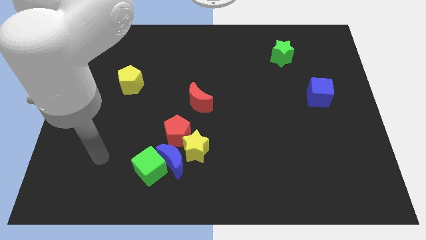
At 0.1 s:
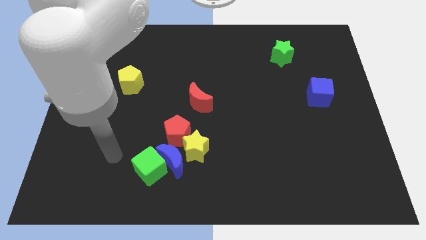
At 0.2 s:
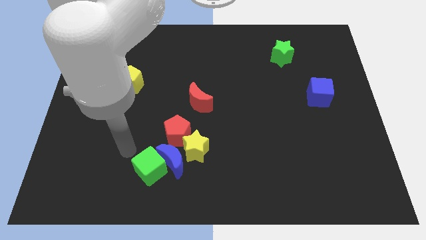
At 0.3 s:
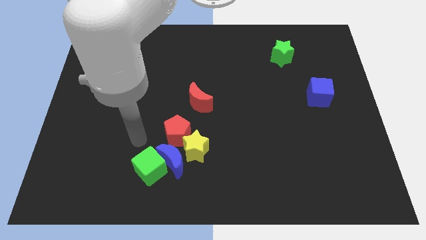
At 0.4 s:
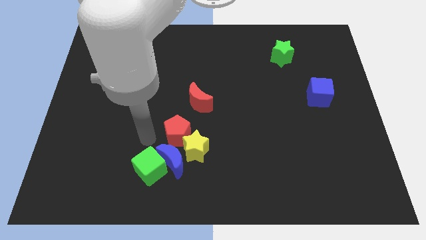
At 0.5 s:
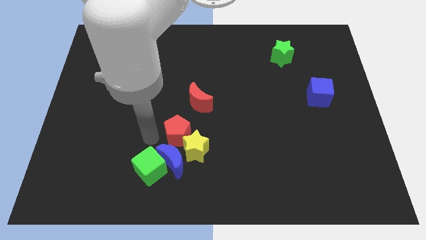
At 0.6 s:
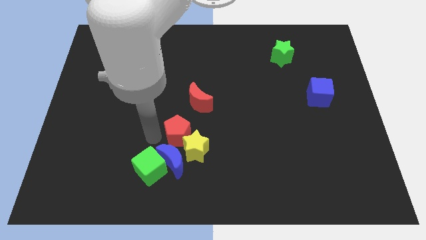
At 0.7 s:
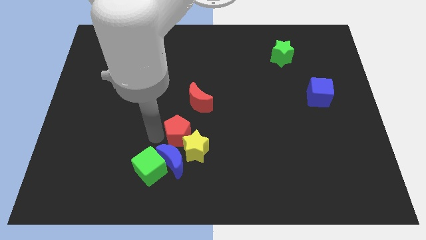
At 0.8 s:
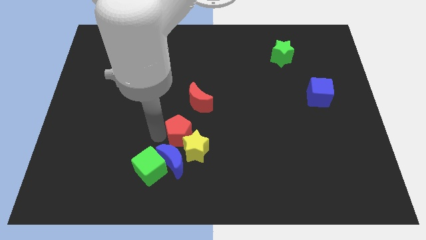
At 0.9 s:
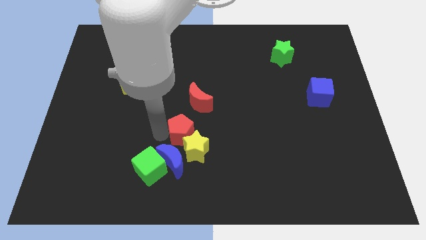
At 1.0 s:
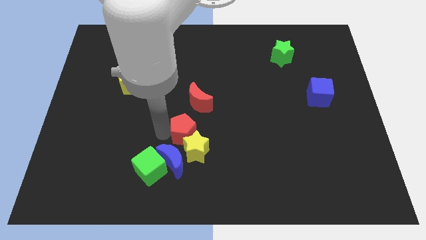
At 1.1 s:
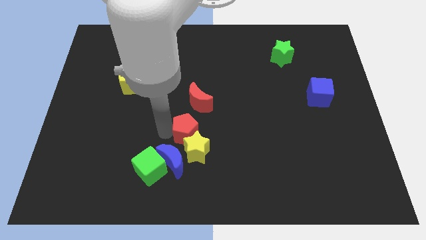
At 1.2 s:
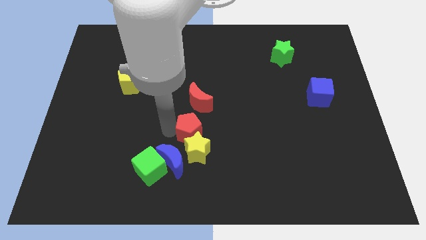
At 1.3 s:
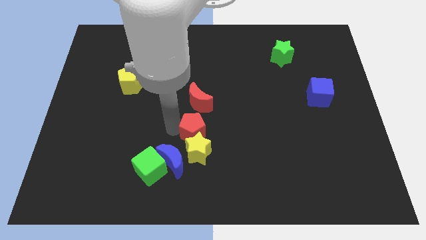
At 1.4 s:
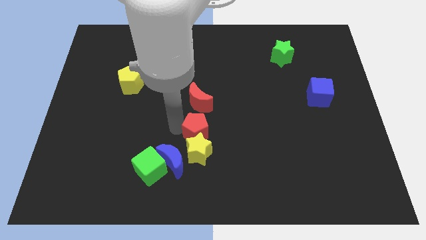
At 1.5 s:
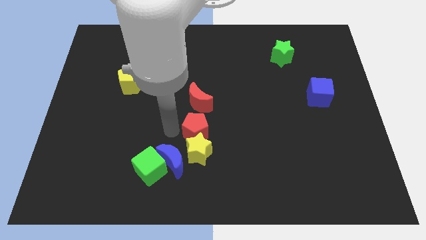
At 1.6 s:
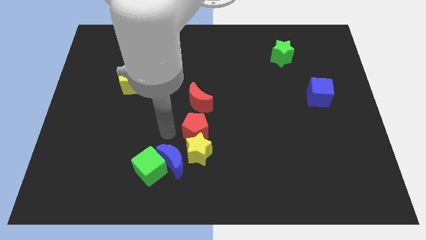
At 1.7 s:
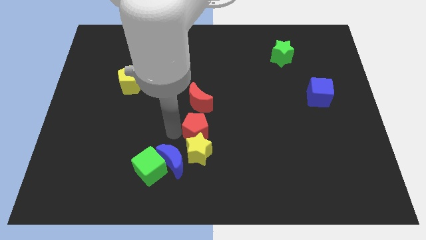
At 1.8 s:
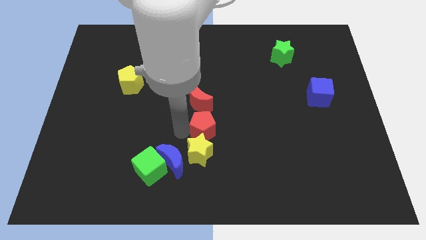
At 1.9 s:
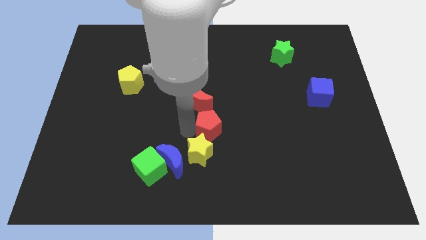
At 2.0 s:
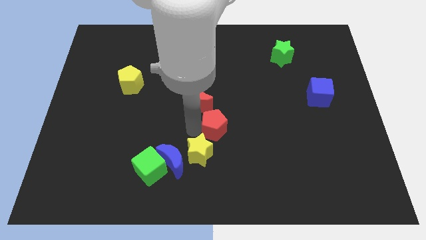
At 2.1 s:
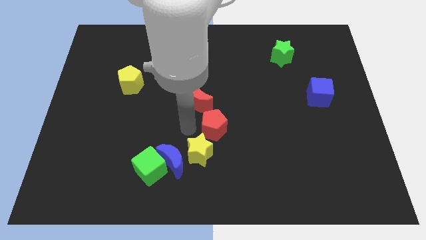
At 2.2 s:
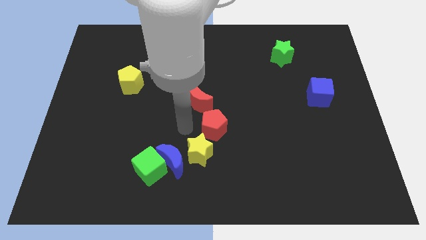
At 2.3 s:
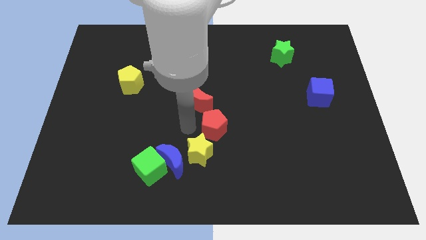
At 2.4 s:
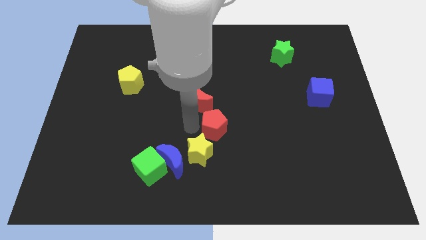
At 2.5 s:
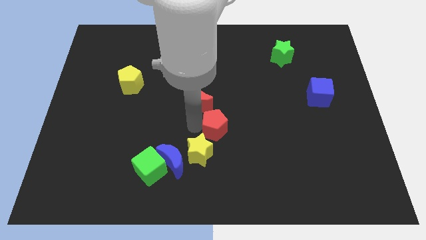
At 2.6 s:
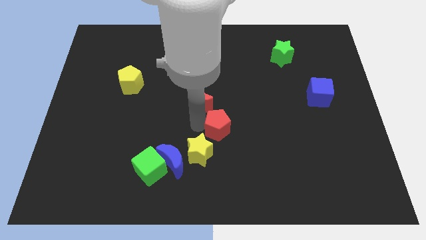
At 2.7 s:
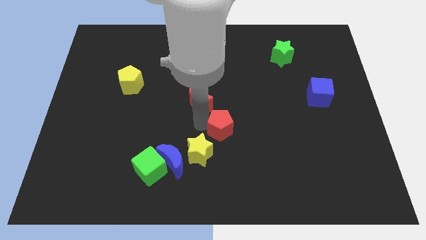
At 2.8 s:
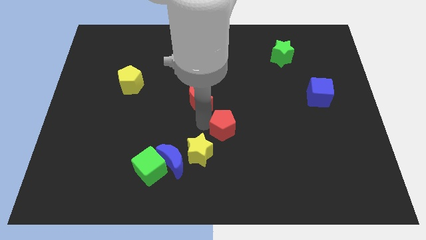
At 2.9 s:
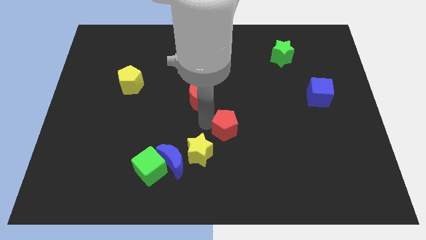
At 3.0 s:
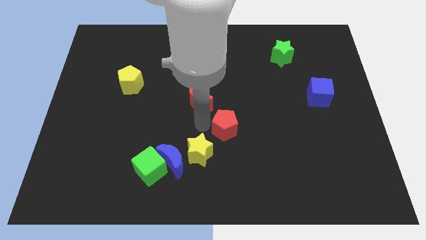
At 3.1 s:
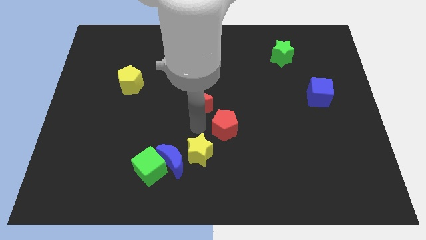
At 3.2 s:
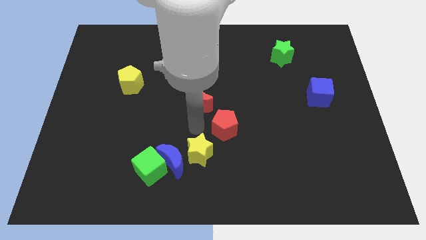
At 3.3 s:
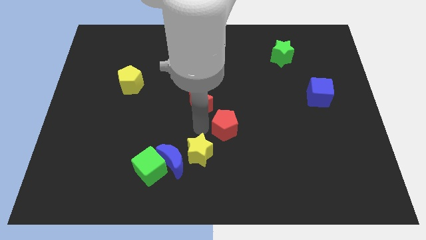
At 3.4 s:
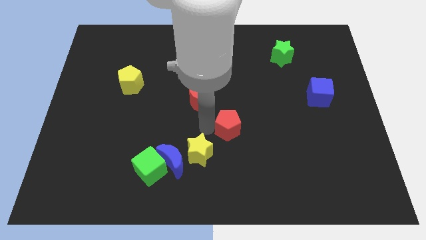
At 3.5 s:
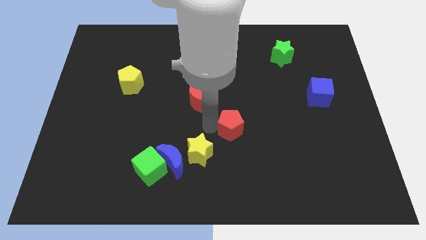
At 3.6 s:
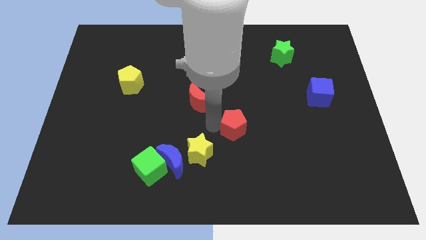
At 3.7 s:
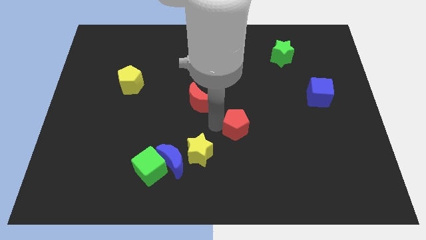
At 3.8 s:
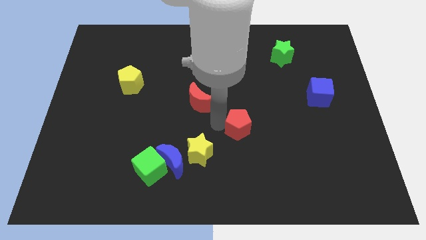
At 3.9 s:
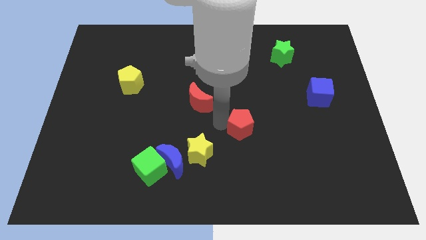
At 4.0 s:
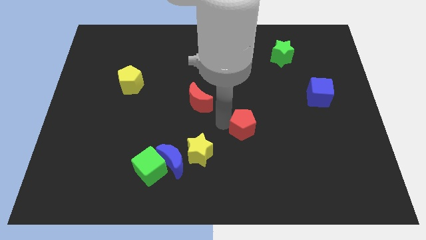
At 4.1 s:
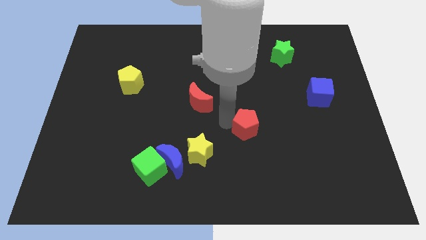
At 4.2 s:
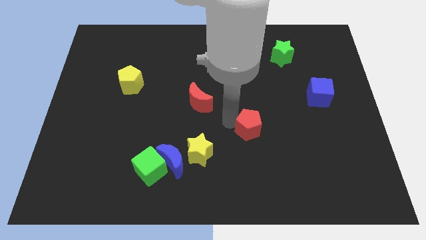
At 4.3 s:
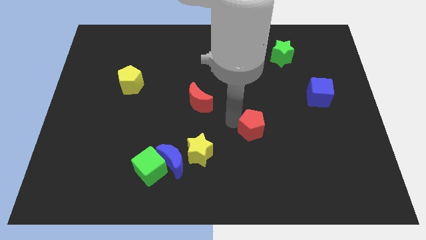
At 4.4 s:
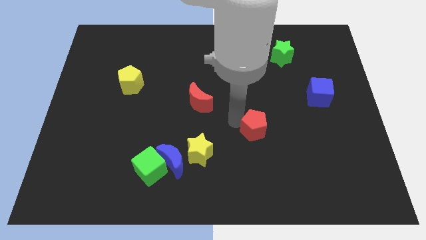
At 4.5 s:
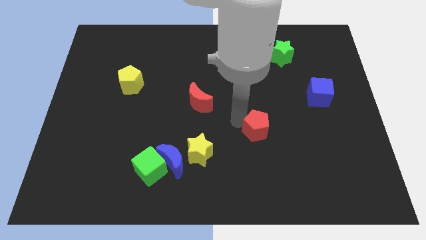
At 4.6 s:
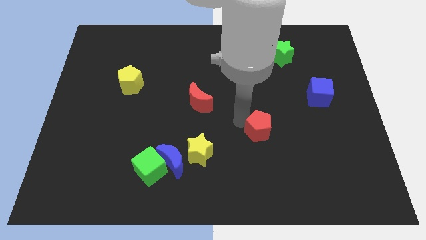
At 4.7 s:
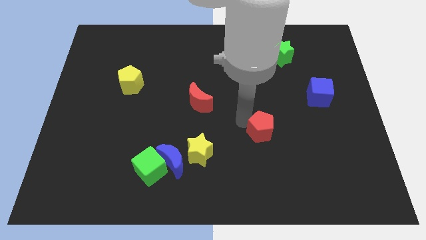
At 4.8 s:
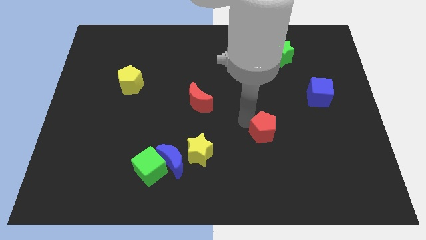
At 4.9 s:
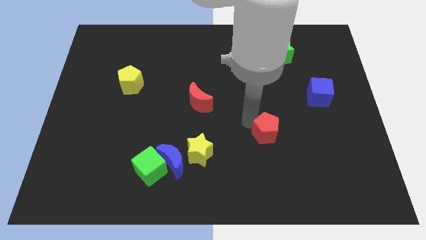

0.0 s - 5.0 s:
slide the red pentagon to the right

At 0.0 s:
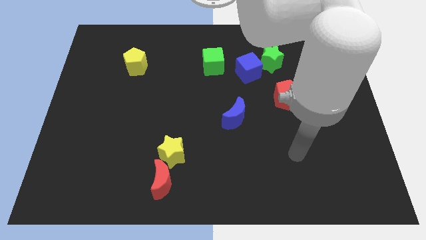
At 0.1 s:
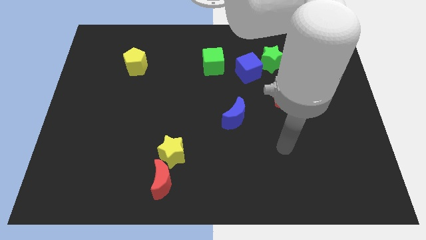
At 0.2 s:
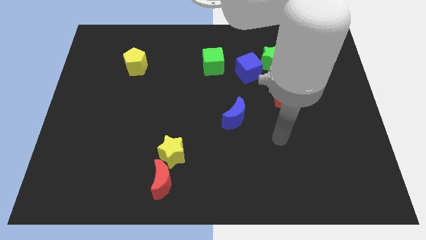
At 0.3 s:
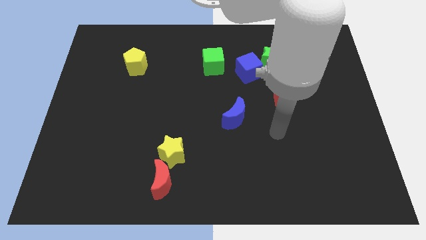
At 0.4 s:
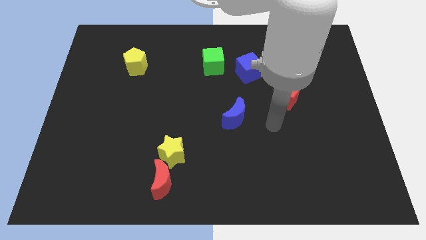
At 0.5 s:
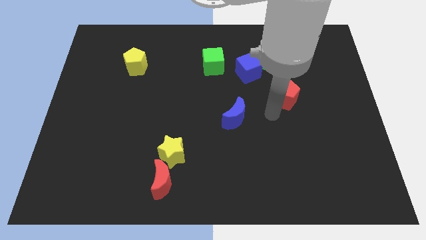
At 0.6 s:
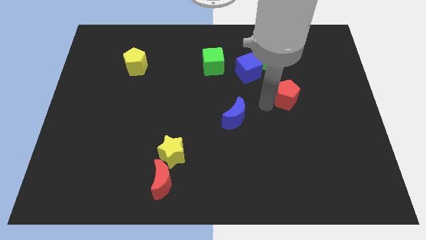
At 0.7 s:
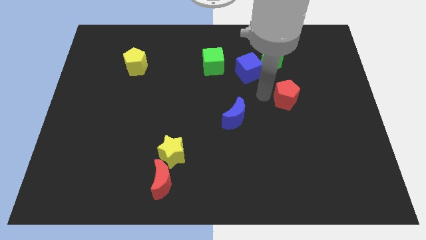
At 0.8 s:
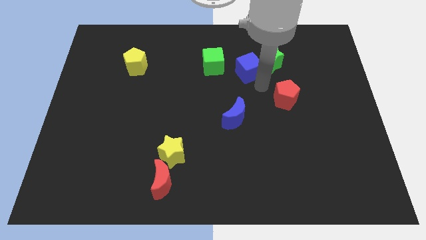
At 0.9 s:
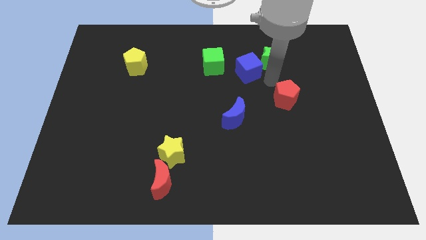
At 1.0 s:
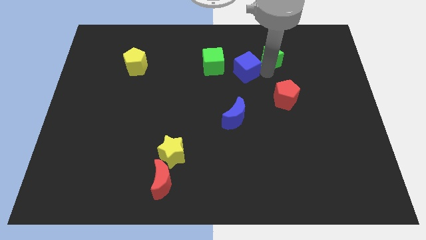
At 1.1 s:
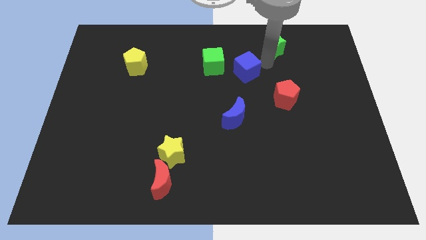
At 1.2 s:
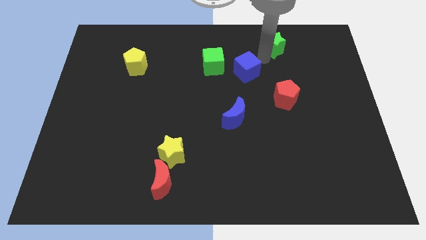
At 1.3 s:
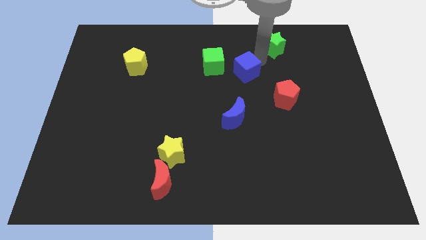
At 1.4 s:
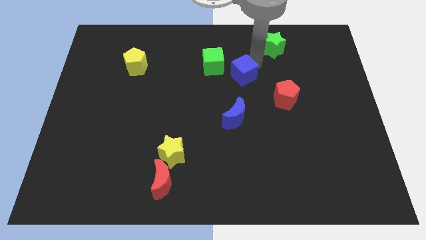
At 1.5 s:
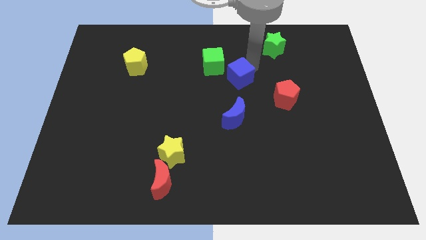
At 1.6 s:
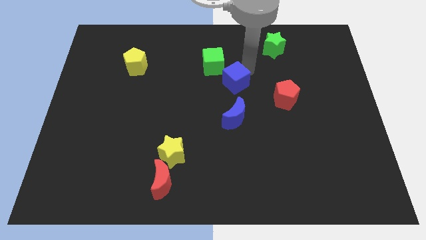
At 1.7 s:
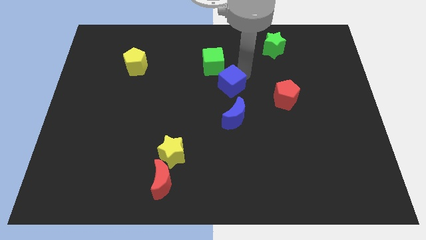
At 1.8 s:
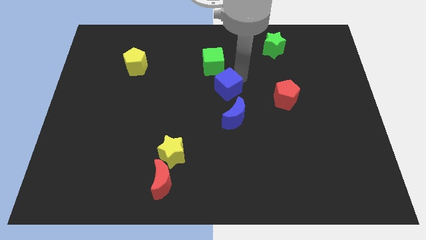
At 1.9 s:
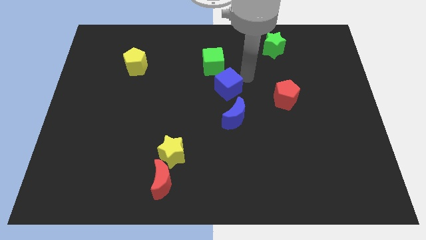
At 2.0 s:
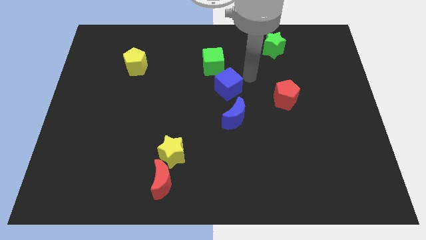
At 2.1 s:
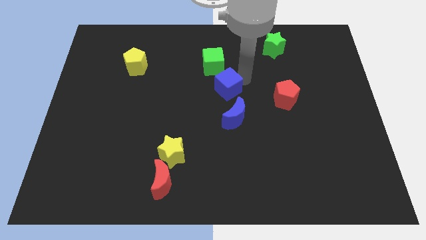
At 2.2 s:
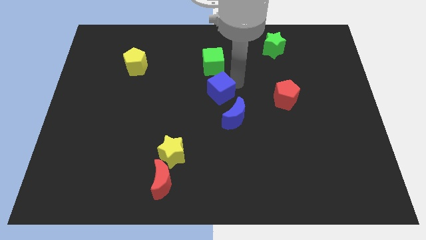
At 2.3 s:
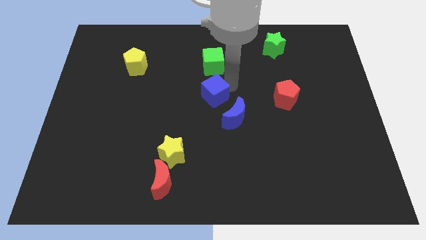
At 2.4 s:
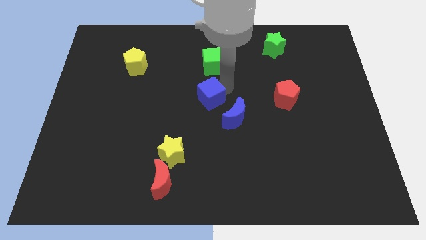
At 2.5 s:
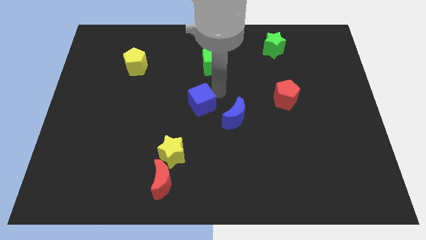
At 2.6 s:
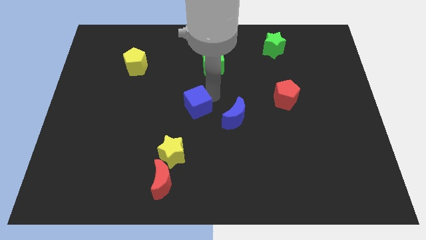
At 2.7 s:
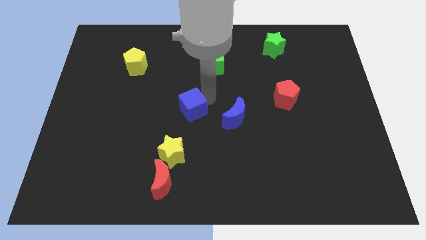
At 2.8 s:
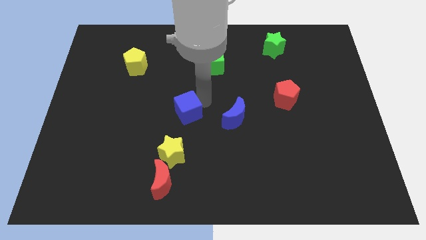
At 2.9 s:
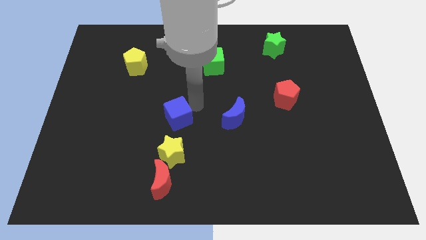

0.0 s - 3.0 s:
push the blue cube down and then to the left

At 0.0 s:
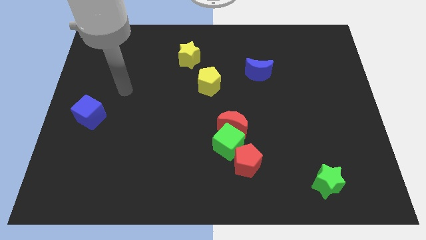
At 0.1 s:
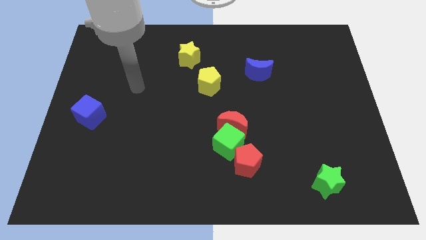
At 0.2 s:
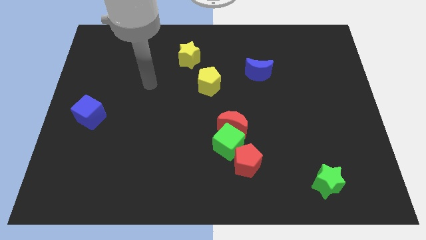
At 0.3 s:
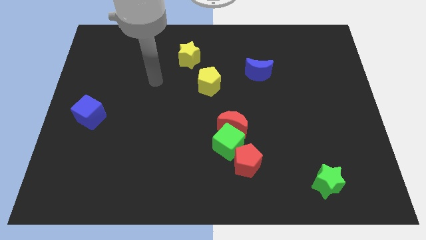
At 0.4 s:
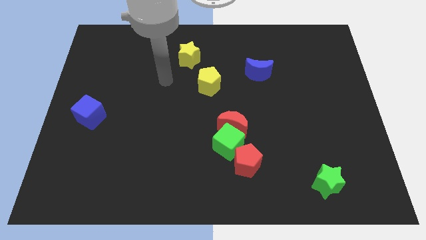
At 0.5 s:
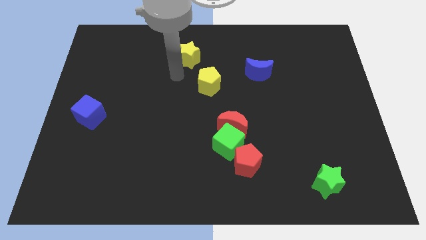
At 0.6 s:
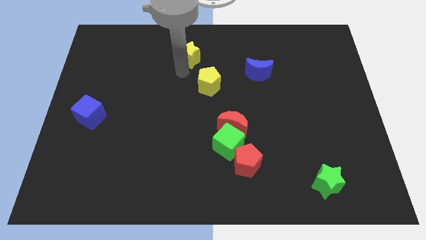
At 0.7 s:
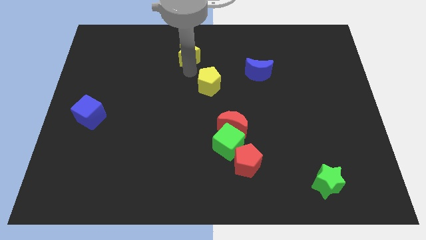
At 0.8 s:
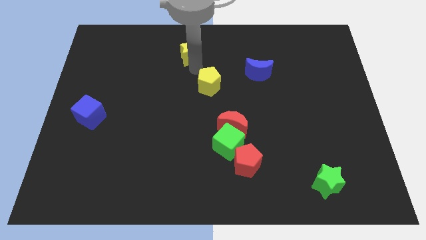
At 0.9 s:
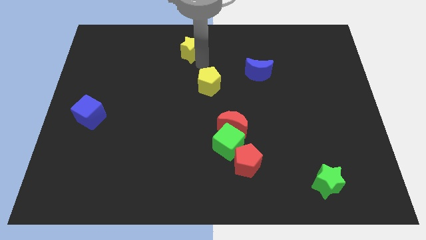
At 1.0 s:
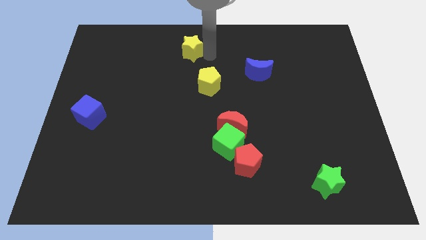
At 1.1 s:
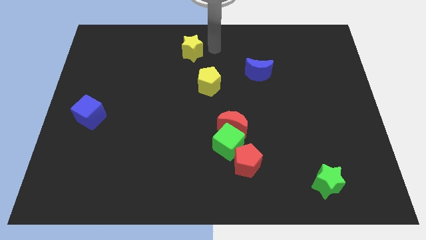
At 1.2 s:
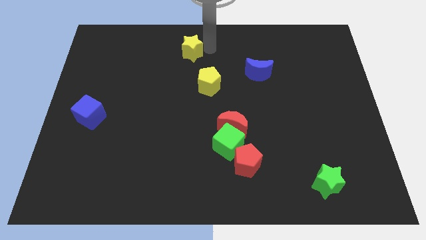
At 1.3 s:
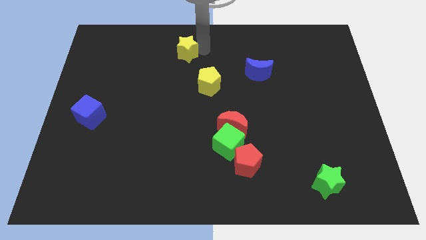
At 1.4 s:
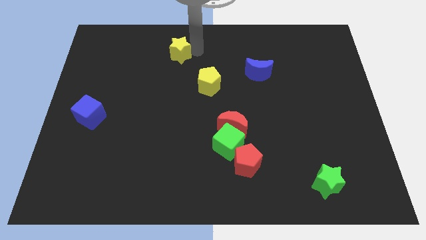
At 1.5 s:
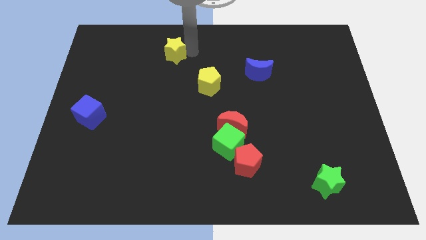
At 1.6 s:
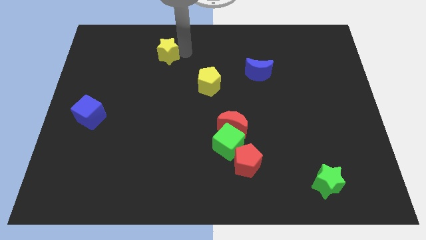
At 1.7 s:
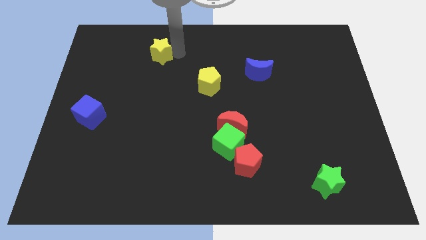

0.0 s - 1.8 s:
move the yellow star left somewhat
